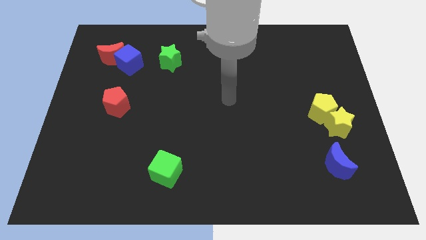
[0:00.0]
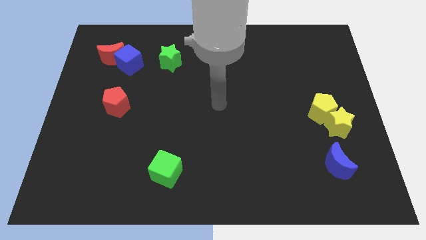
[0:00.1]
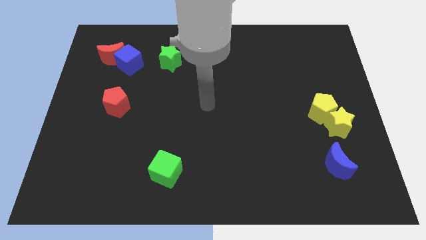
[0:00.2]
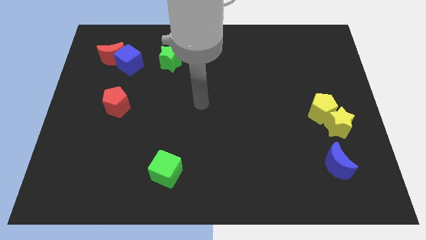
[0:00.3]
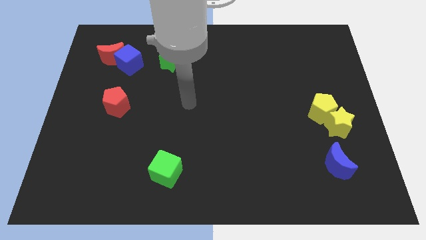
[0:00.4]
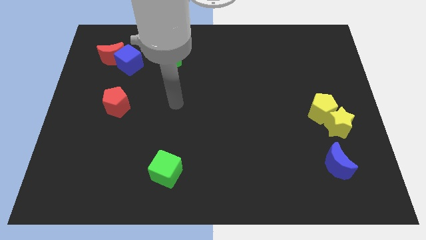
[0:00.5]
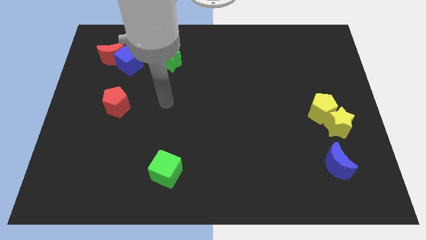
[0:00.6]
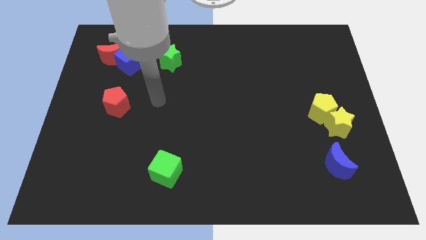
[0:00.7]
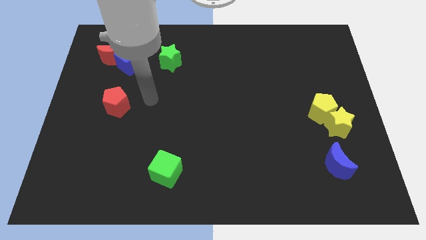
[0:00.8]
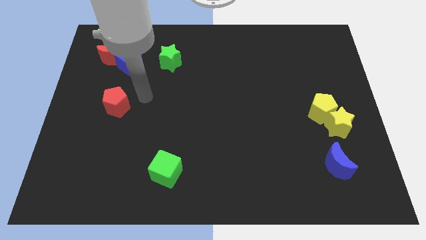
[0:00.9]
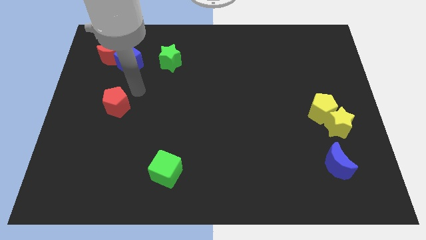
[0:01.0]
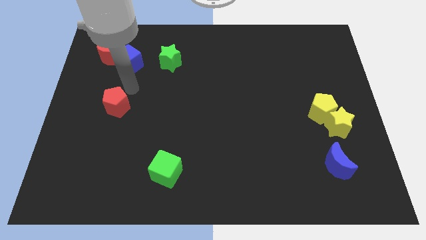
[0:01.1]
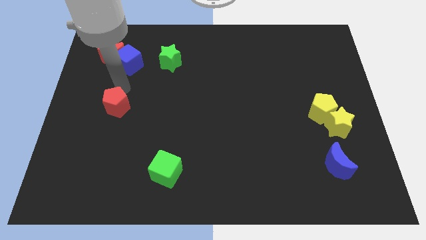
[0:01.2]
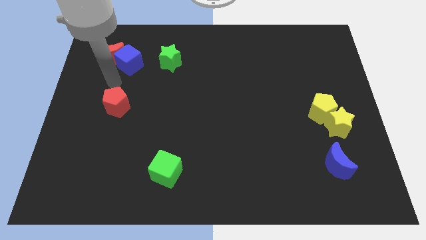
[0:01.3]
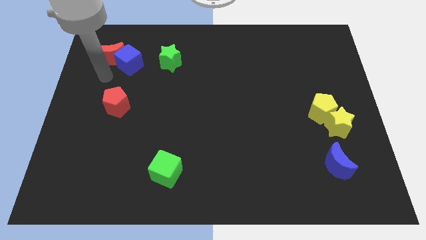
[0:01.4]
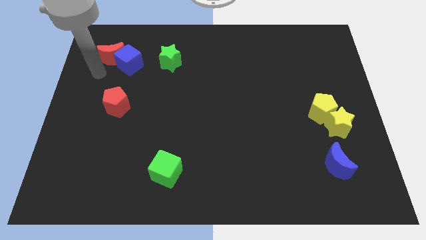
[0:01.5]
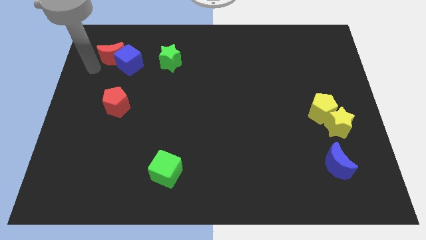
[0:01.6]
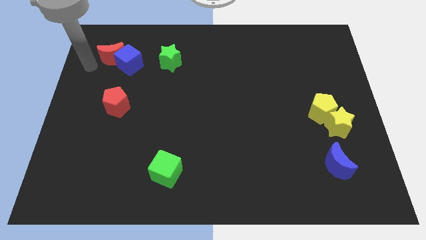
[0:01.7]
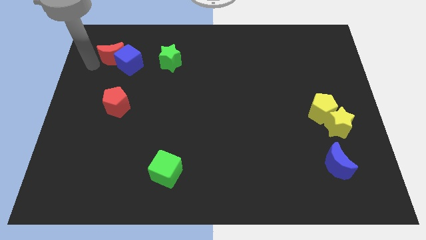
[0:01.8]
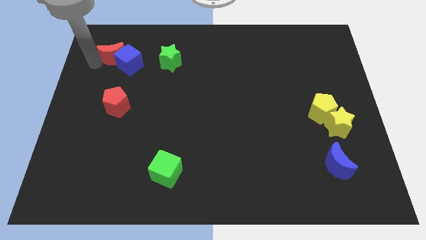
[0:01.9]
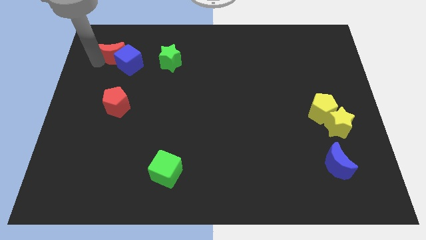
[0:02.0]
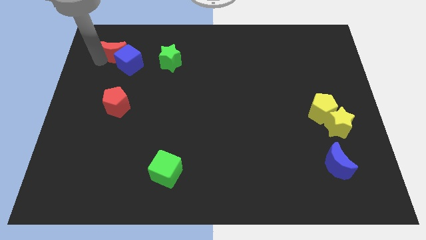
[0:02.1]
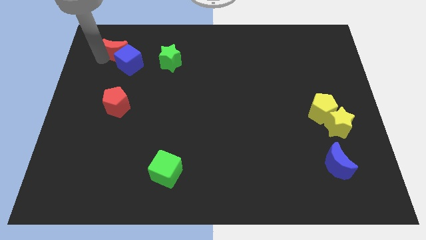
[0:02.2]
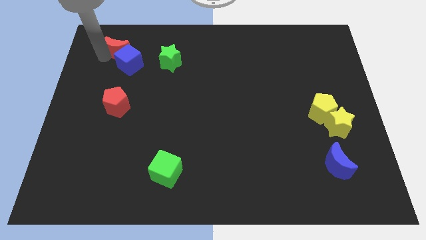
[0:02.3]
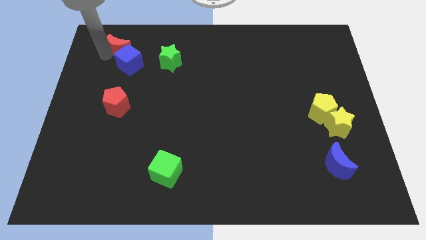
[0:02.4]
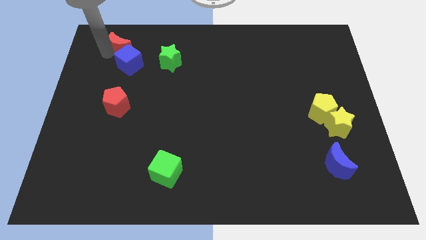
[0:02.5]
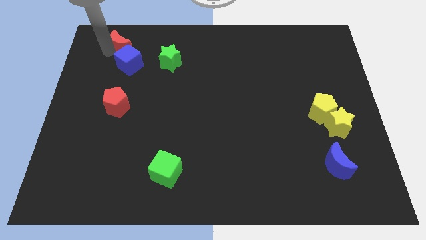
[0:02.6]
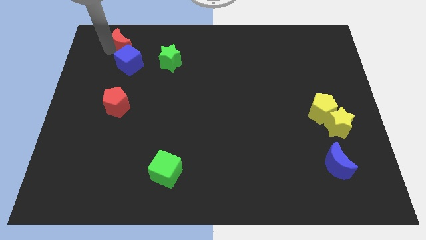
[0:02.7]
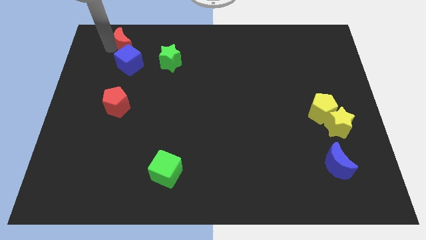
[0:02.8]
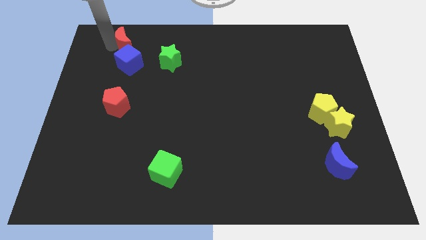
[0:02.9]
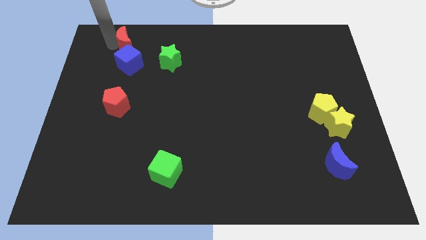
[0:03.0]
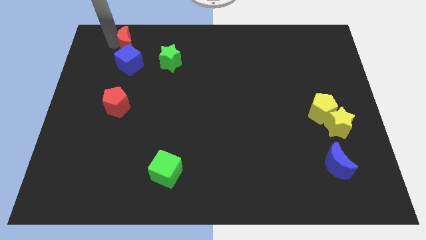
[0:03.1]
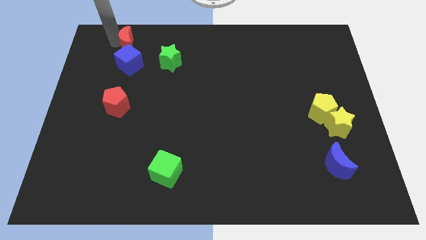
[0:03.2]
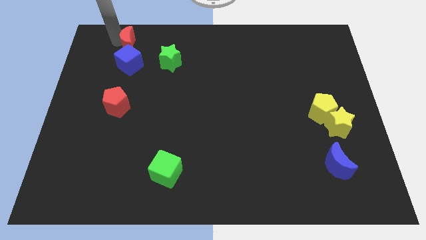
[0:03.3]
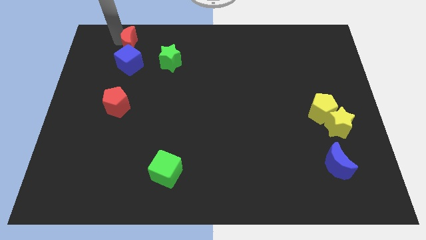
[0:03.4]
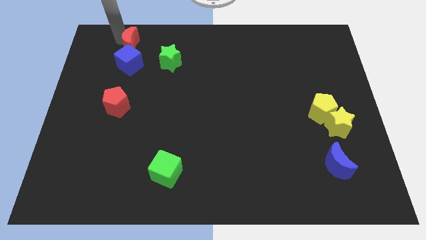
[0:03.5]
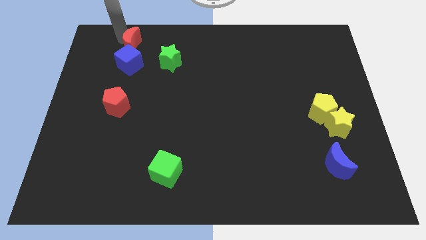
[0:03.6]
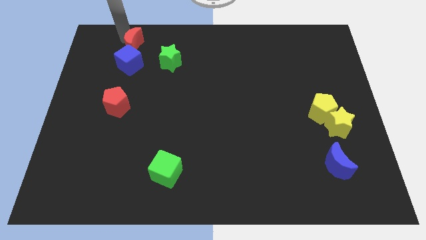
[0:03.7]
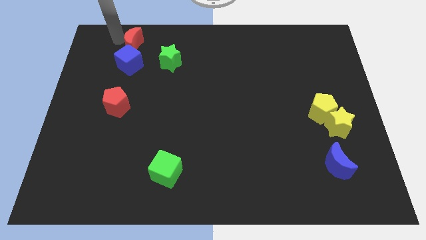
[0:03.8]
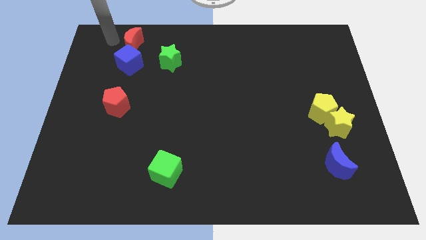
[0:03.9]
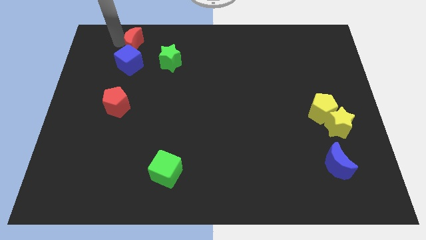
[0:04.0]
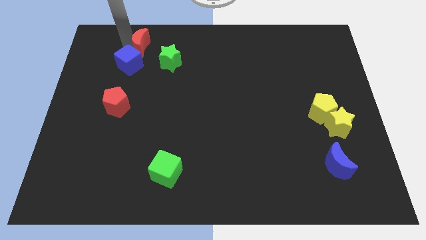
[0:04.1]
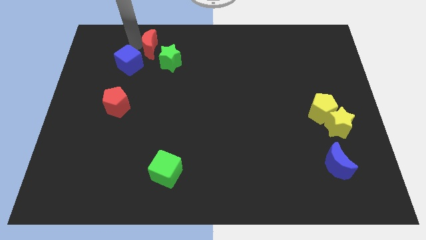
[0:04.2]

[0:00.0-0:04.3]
slightly push the red moon right

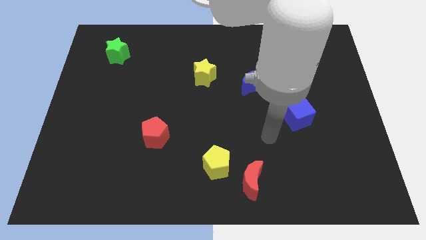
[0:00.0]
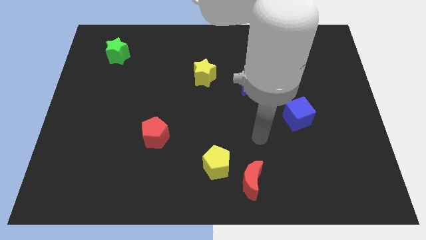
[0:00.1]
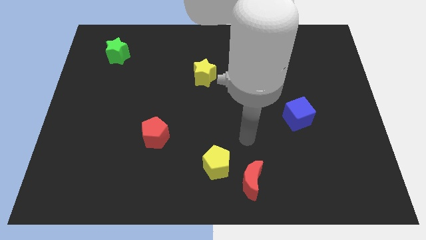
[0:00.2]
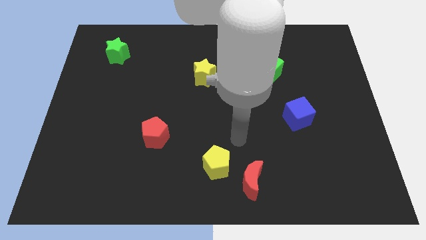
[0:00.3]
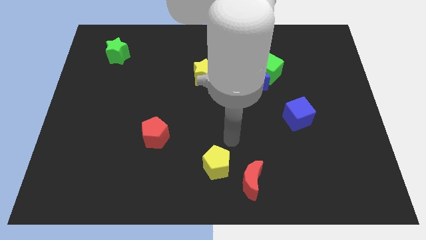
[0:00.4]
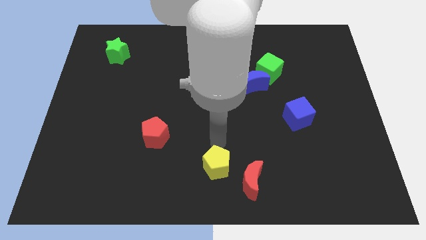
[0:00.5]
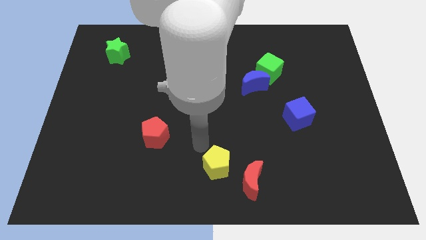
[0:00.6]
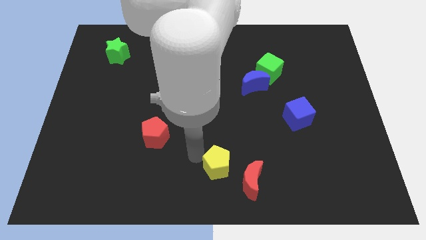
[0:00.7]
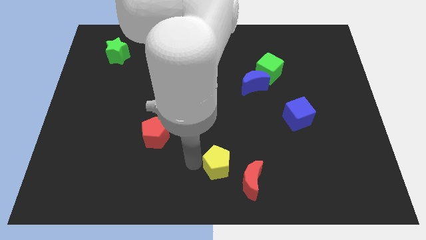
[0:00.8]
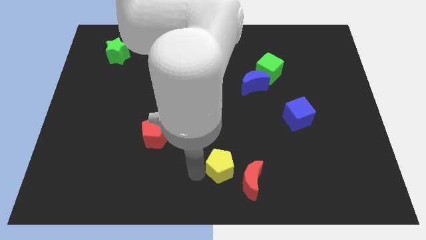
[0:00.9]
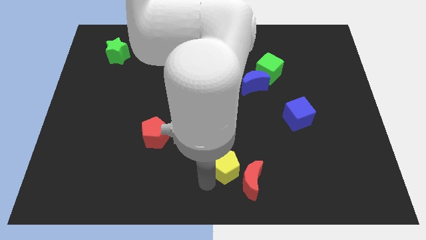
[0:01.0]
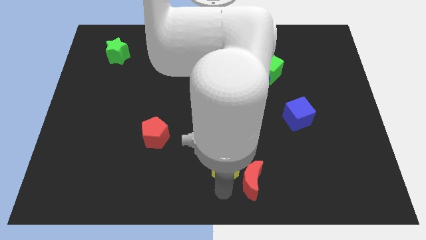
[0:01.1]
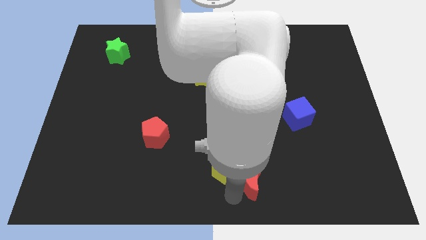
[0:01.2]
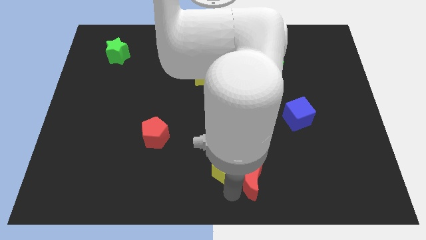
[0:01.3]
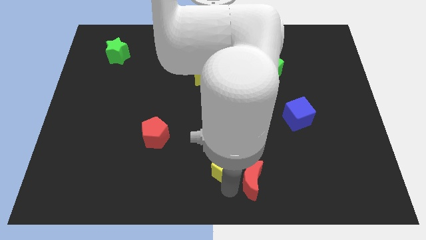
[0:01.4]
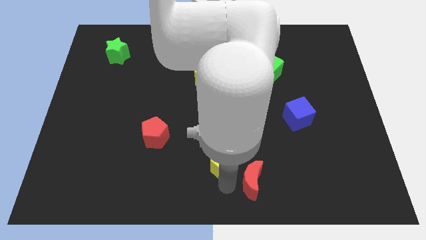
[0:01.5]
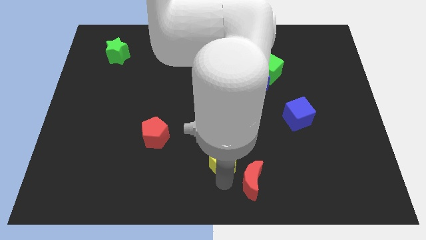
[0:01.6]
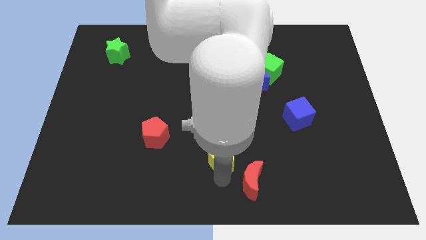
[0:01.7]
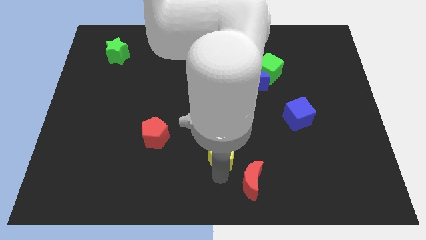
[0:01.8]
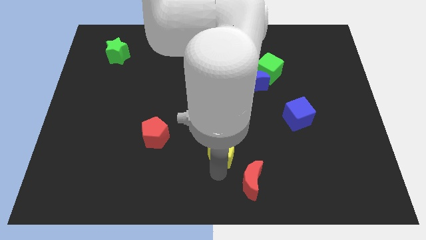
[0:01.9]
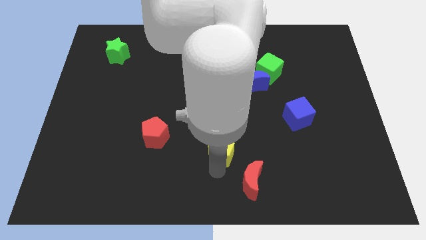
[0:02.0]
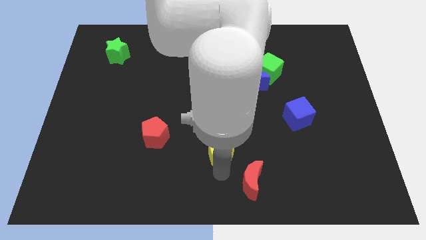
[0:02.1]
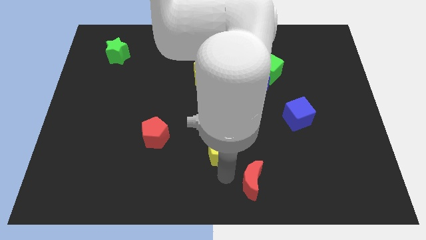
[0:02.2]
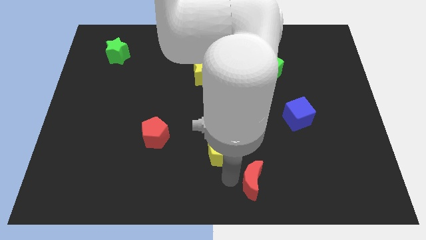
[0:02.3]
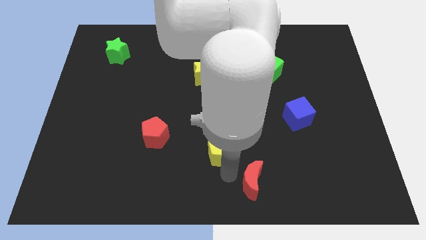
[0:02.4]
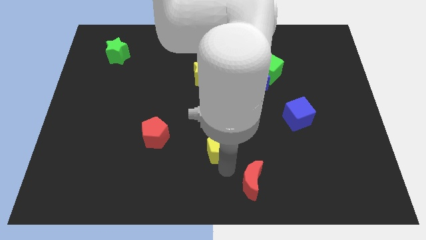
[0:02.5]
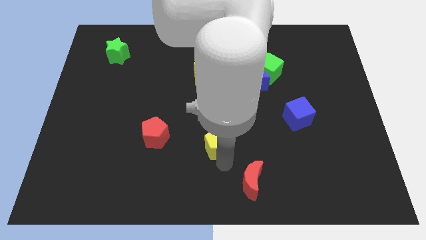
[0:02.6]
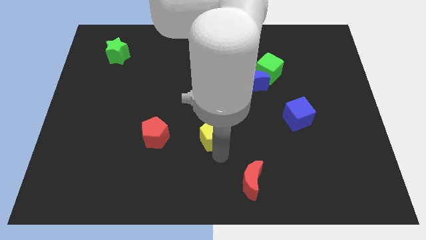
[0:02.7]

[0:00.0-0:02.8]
slide the yellow pentagon upwards a little bit

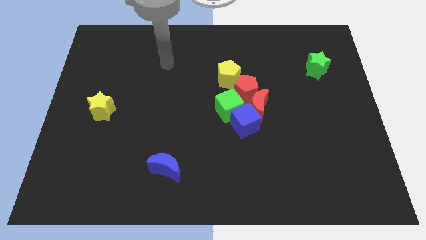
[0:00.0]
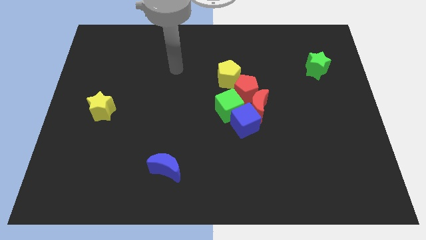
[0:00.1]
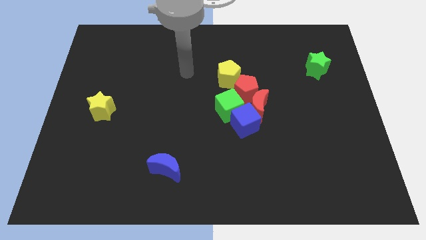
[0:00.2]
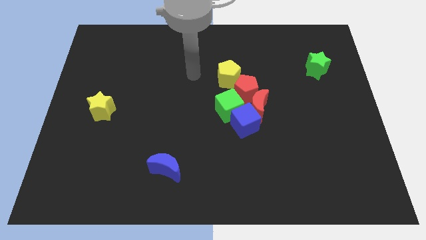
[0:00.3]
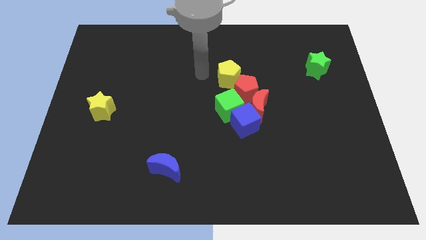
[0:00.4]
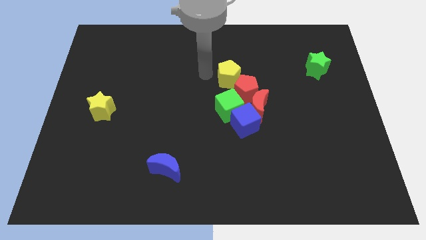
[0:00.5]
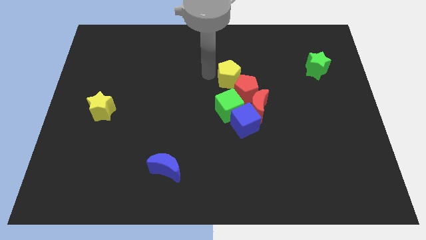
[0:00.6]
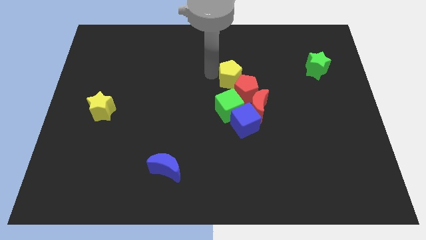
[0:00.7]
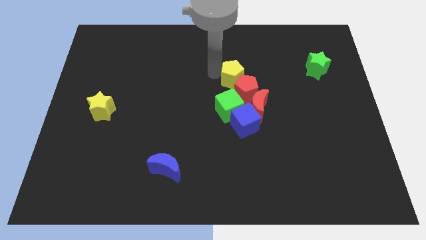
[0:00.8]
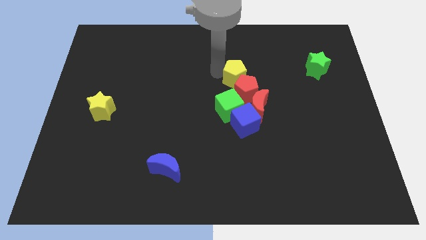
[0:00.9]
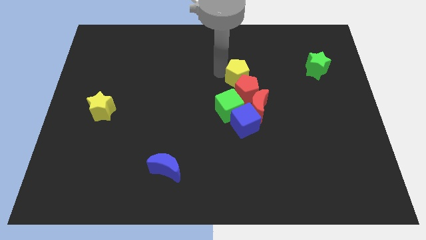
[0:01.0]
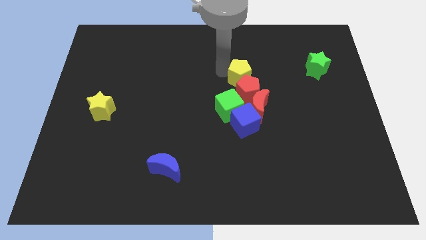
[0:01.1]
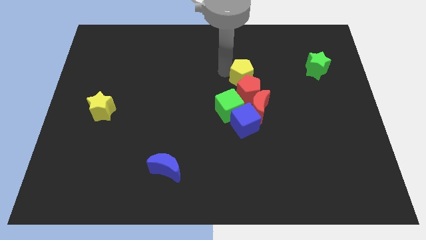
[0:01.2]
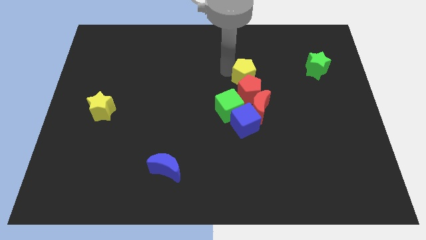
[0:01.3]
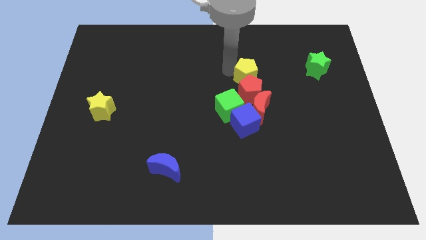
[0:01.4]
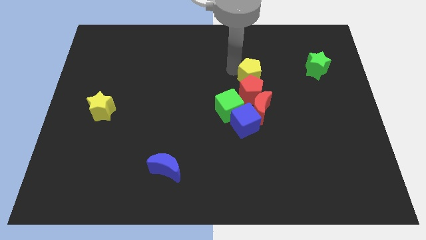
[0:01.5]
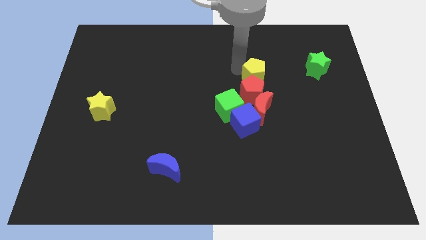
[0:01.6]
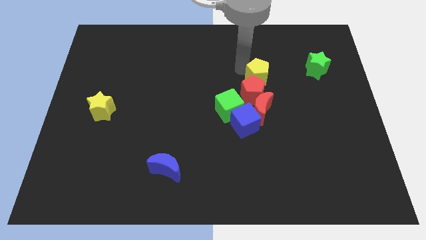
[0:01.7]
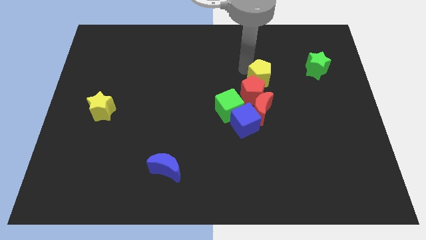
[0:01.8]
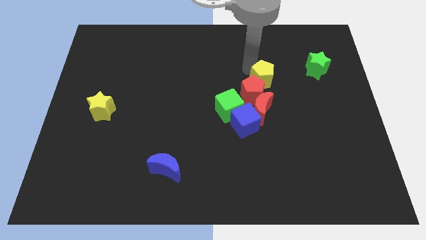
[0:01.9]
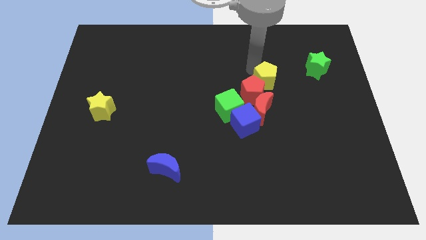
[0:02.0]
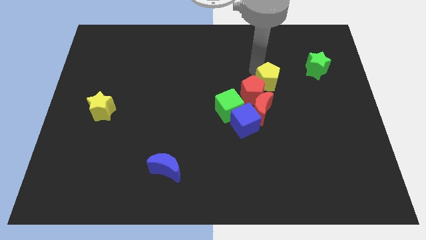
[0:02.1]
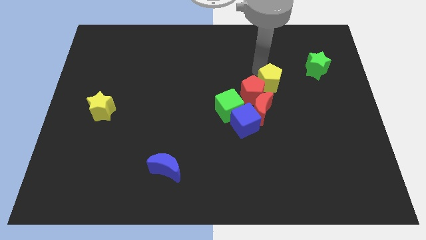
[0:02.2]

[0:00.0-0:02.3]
move the yellow pentagon a bit diagonally down and right
